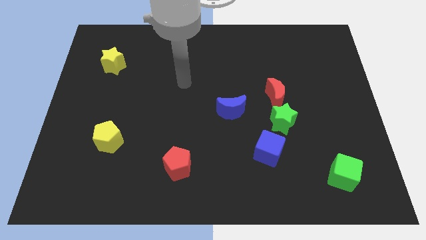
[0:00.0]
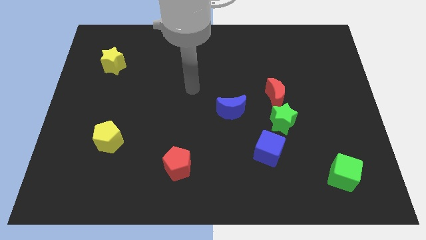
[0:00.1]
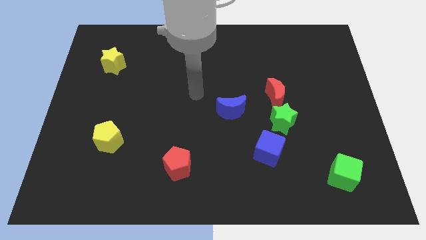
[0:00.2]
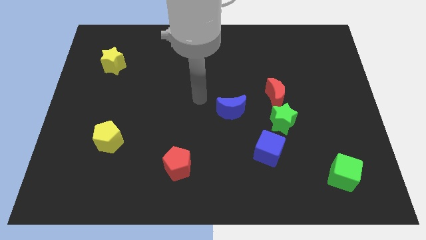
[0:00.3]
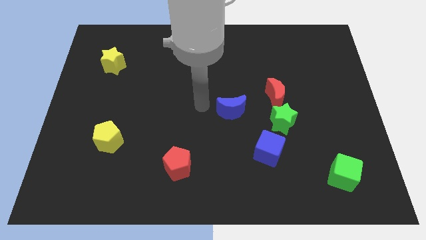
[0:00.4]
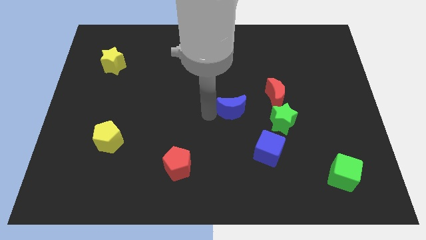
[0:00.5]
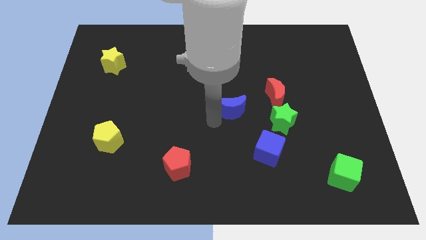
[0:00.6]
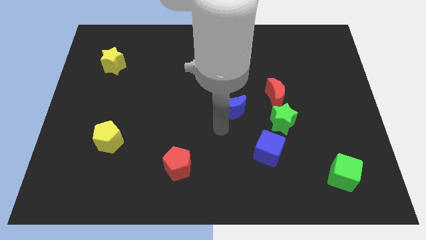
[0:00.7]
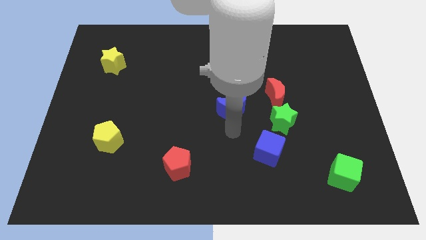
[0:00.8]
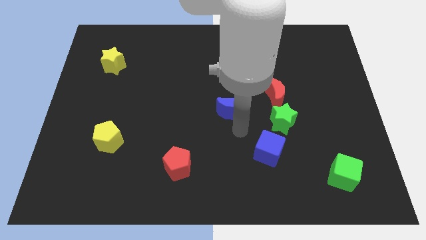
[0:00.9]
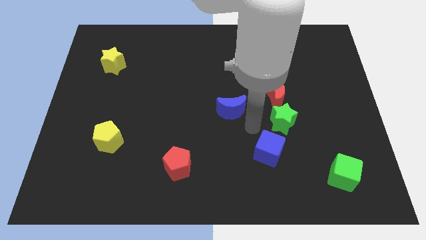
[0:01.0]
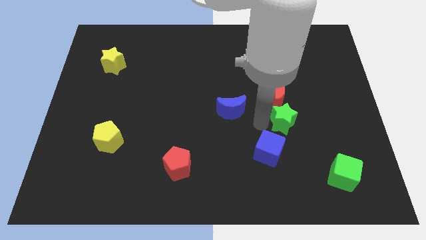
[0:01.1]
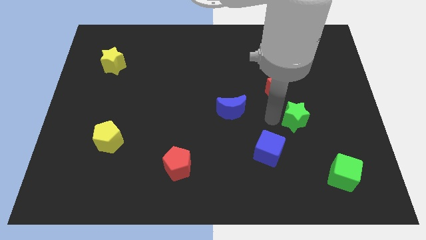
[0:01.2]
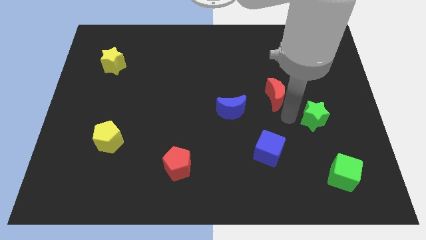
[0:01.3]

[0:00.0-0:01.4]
pull the red moon apart from the green star

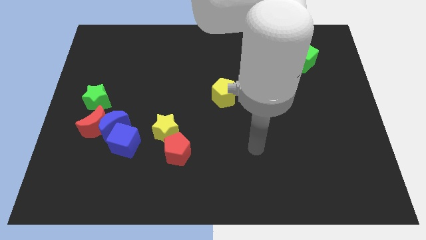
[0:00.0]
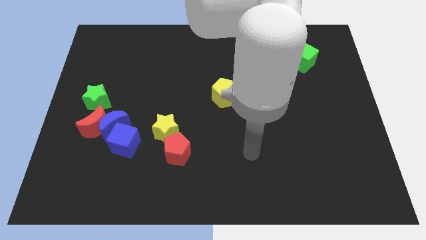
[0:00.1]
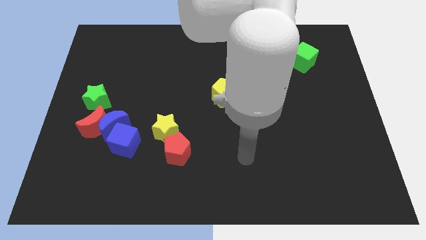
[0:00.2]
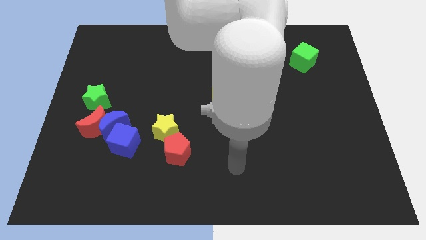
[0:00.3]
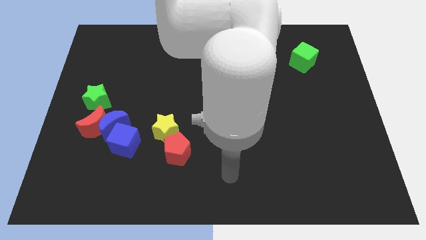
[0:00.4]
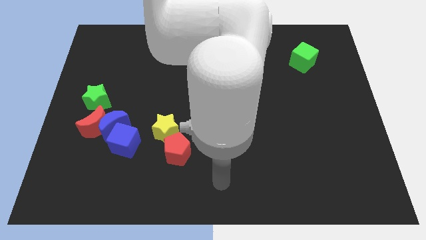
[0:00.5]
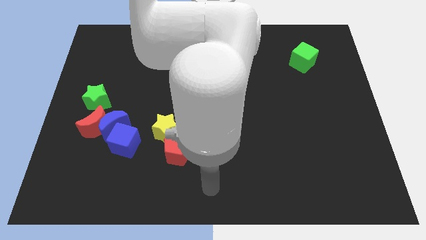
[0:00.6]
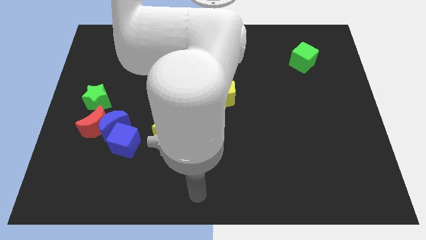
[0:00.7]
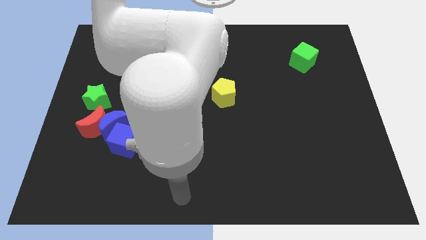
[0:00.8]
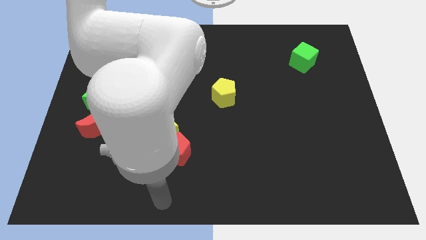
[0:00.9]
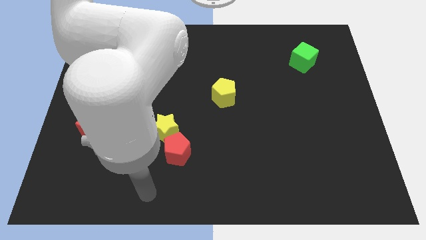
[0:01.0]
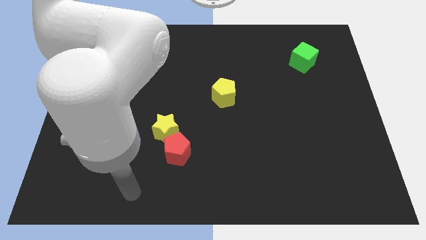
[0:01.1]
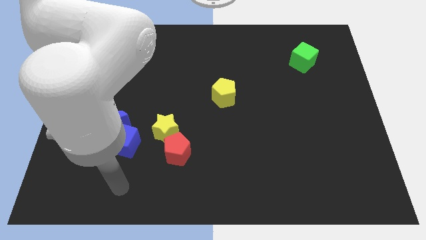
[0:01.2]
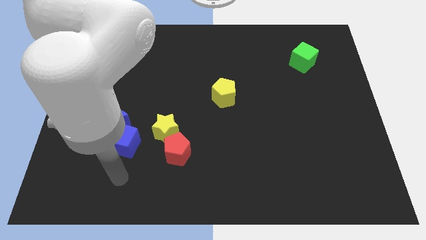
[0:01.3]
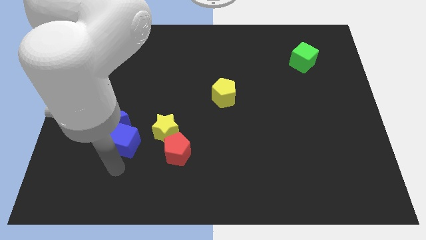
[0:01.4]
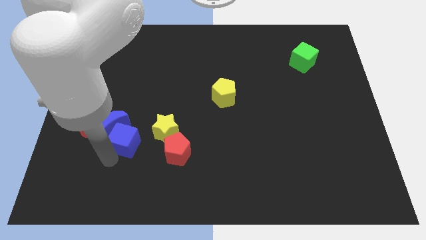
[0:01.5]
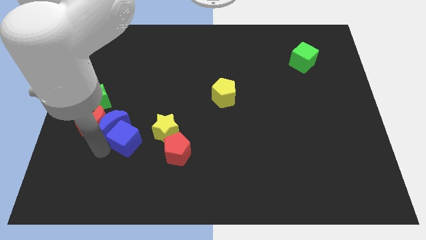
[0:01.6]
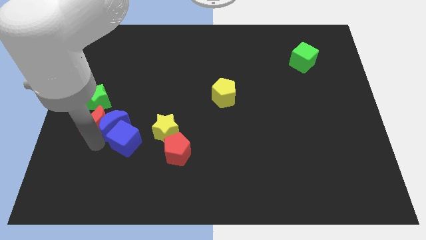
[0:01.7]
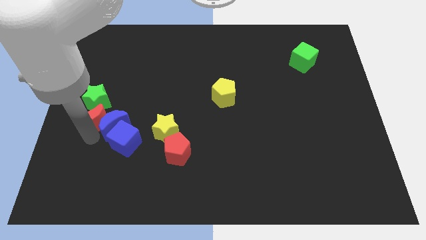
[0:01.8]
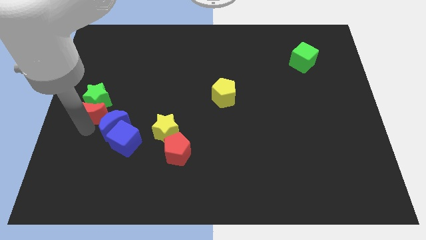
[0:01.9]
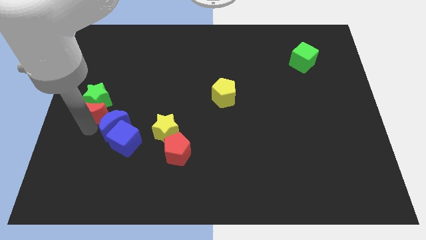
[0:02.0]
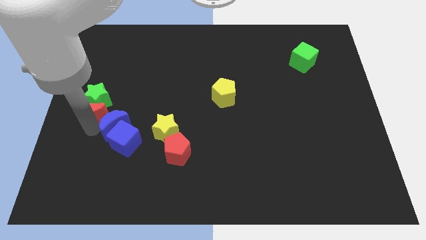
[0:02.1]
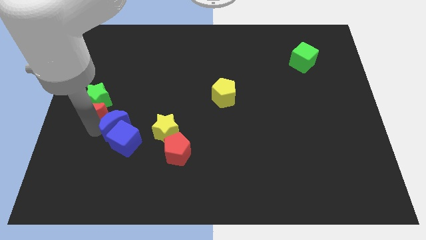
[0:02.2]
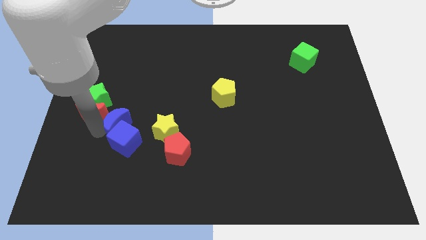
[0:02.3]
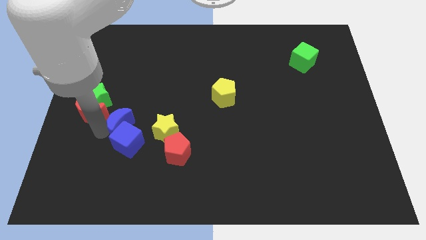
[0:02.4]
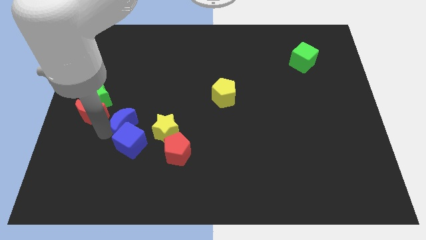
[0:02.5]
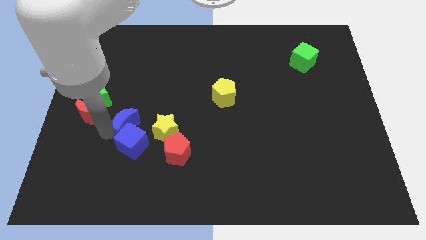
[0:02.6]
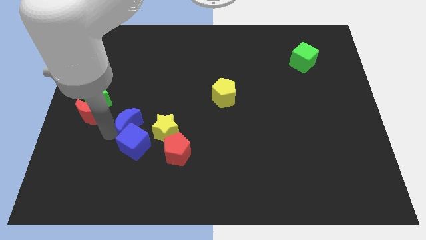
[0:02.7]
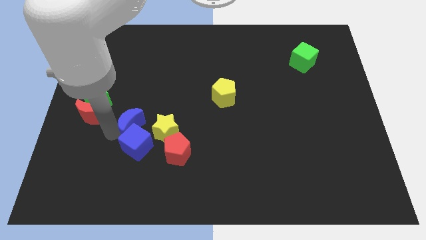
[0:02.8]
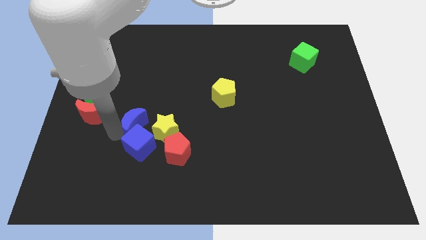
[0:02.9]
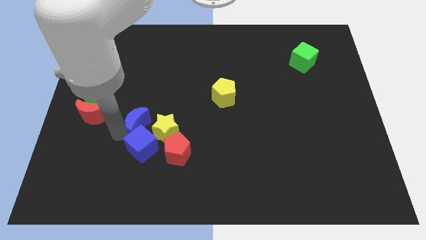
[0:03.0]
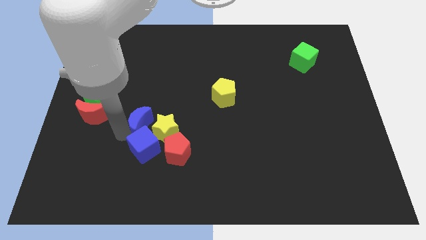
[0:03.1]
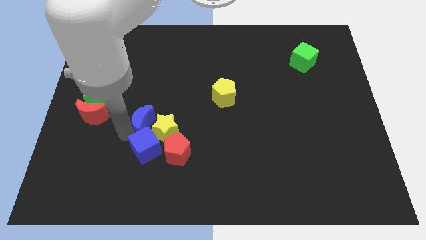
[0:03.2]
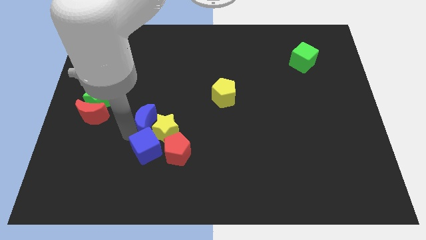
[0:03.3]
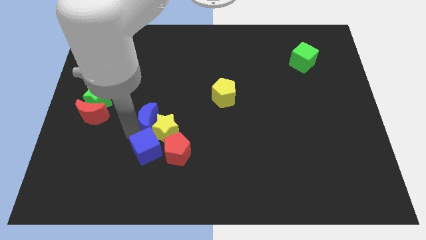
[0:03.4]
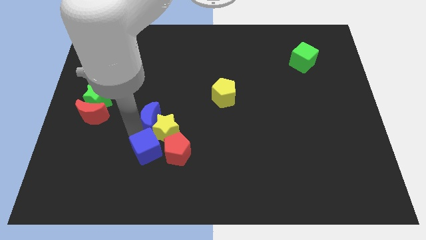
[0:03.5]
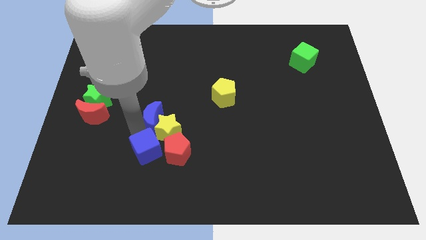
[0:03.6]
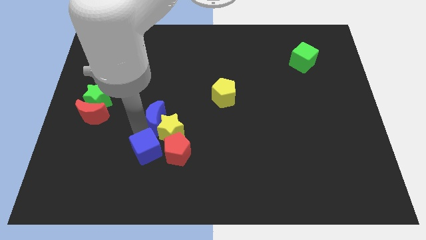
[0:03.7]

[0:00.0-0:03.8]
pull the blue moon apart from the group of blocks

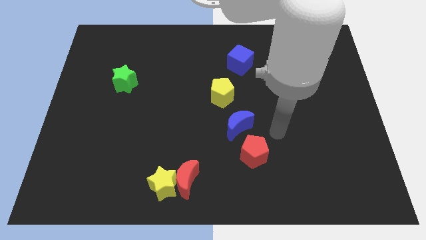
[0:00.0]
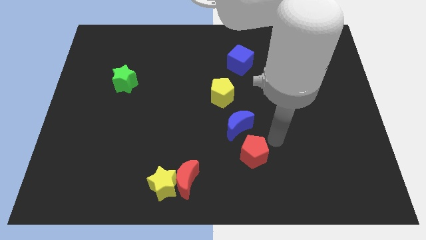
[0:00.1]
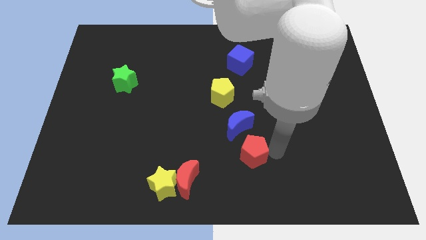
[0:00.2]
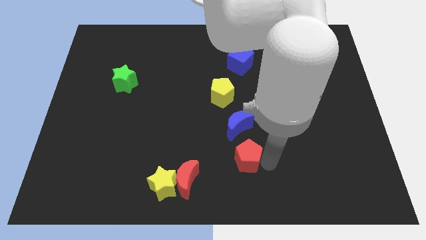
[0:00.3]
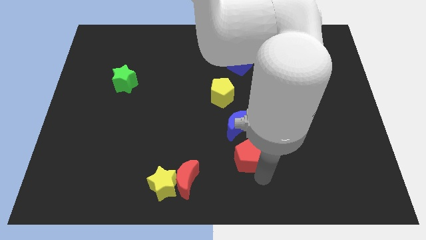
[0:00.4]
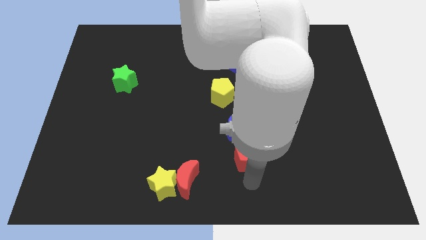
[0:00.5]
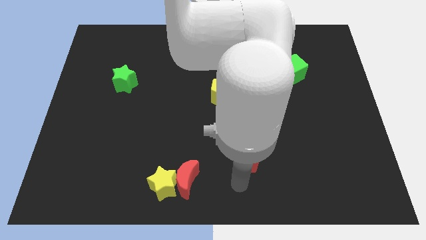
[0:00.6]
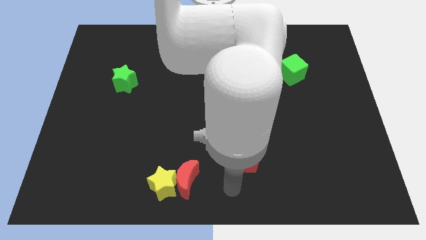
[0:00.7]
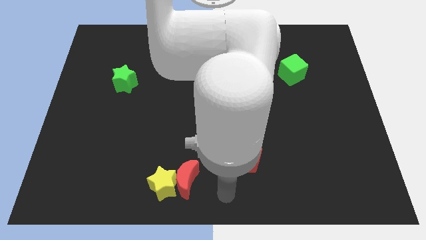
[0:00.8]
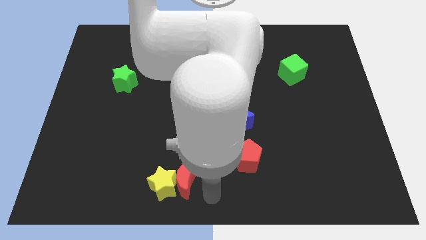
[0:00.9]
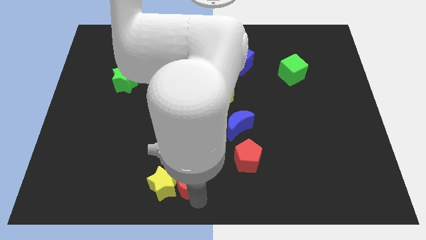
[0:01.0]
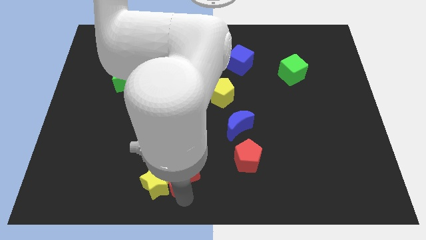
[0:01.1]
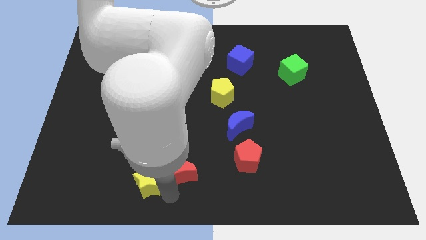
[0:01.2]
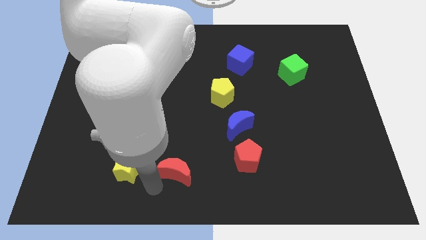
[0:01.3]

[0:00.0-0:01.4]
move the red moon away from the yellow star

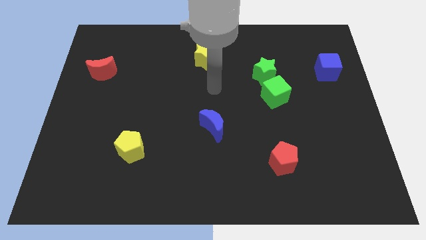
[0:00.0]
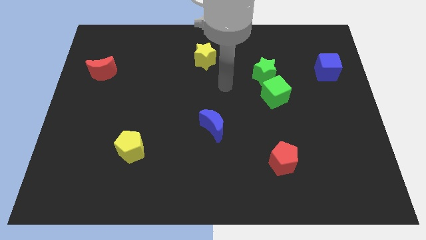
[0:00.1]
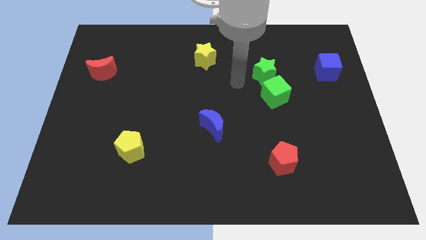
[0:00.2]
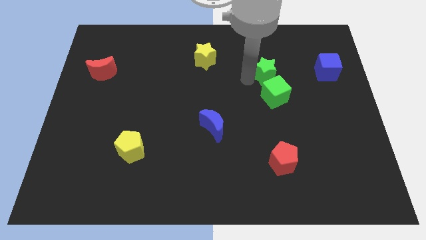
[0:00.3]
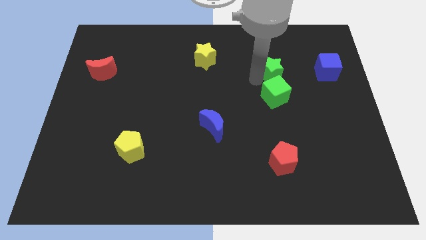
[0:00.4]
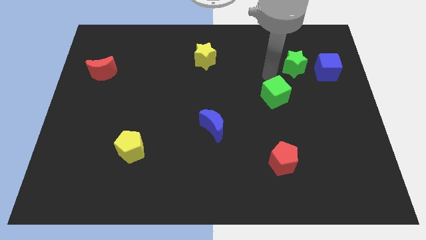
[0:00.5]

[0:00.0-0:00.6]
pull the green cube apart from the green star

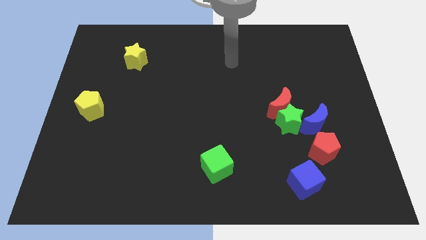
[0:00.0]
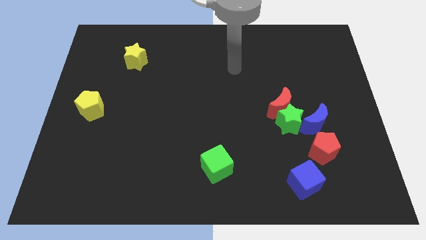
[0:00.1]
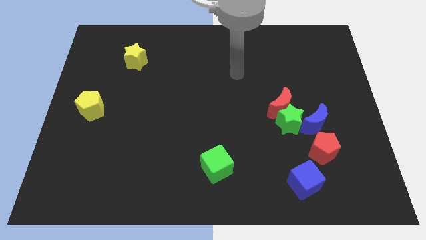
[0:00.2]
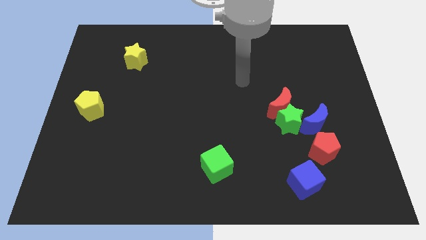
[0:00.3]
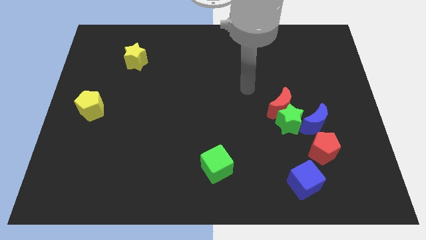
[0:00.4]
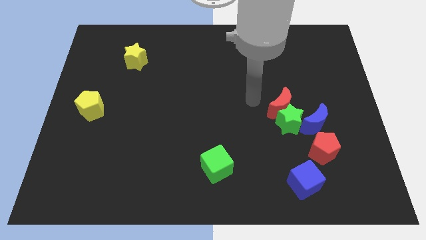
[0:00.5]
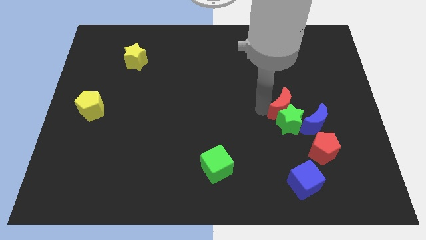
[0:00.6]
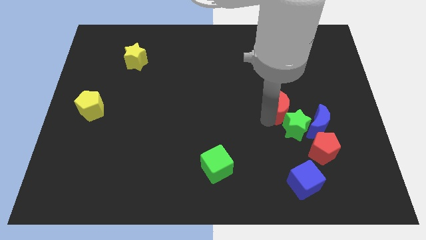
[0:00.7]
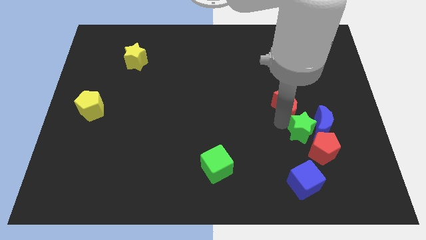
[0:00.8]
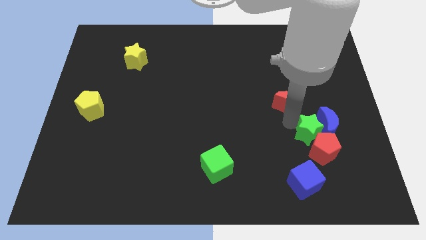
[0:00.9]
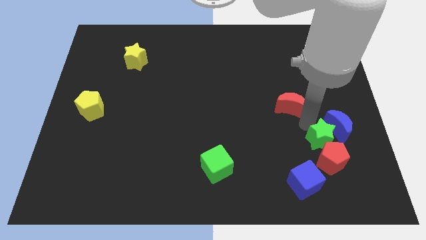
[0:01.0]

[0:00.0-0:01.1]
separate the red moon from the green star and blue moon

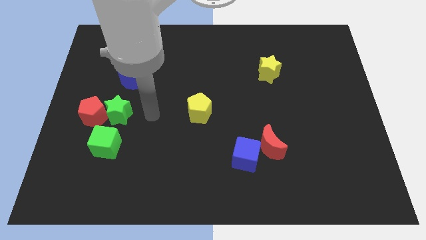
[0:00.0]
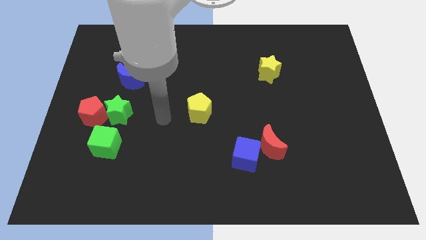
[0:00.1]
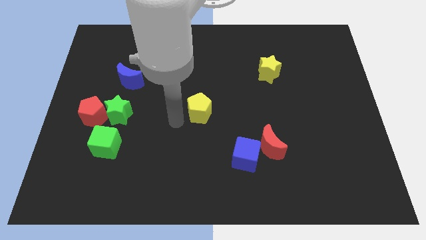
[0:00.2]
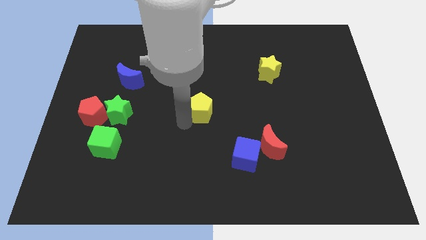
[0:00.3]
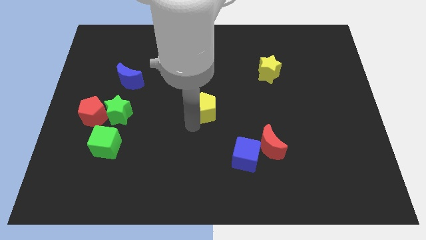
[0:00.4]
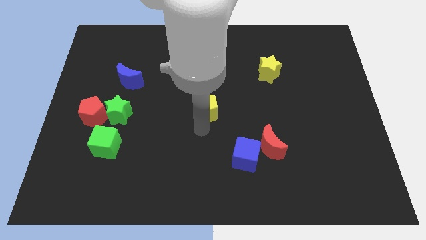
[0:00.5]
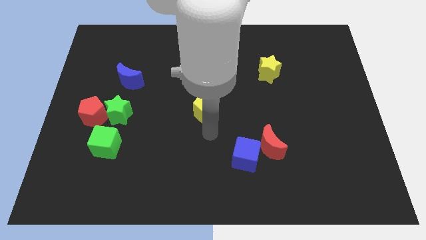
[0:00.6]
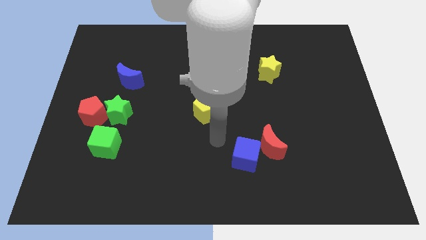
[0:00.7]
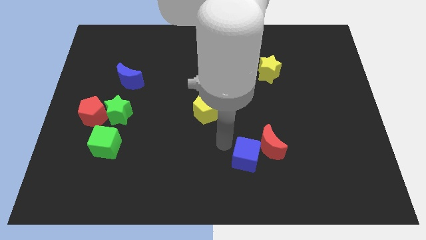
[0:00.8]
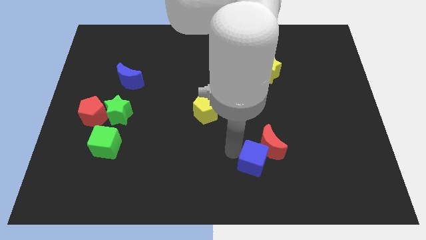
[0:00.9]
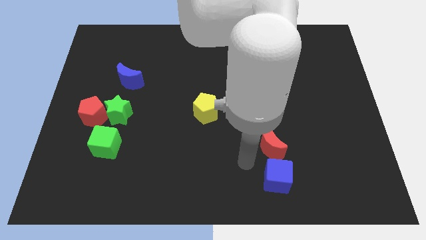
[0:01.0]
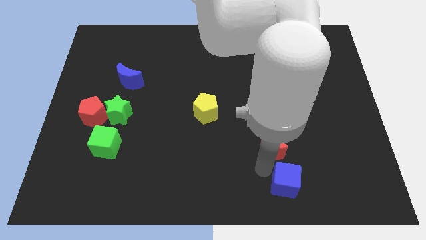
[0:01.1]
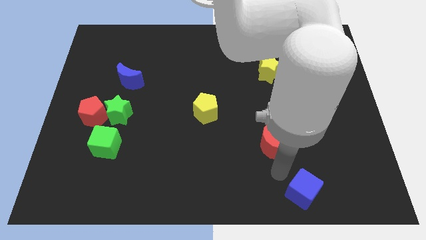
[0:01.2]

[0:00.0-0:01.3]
pull the red moon apart from the blue cube
